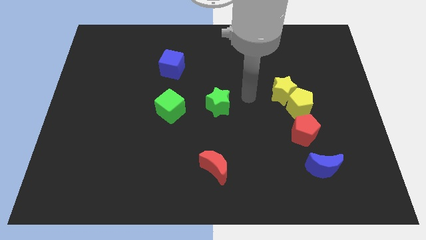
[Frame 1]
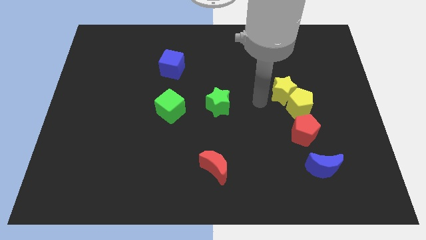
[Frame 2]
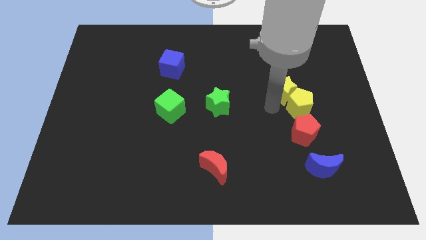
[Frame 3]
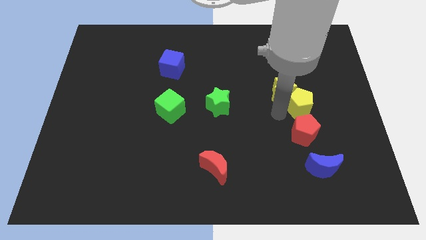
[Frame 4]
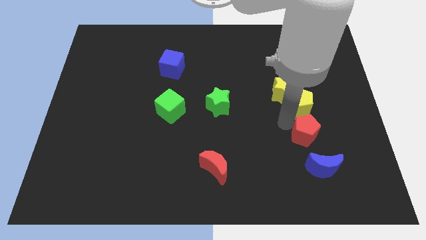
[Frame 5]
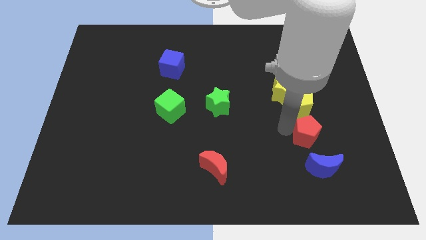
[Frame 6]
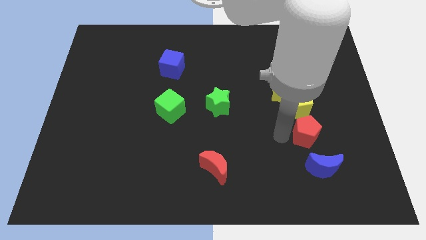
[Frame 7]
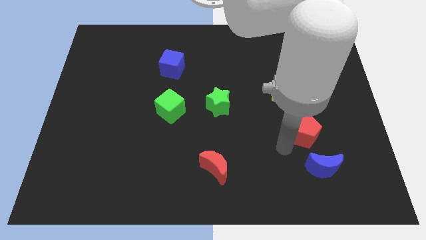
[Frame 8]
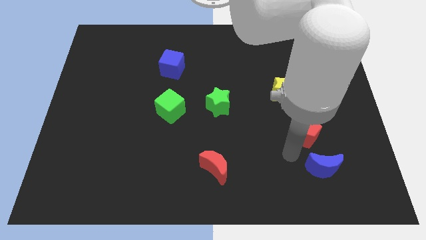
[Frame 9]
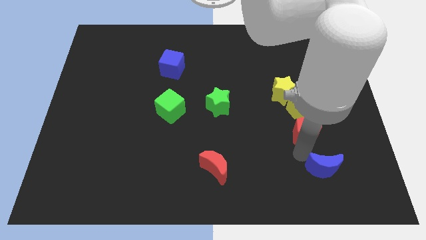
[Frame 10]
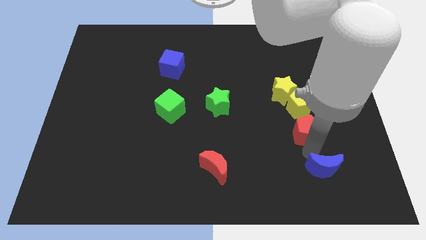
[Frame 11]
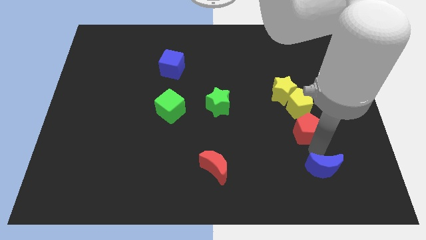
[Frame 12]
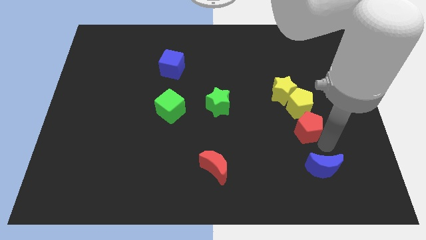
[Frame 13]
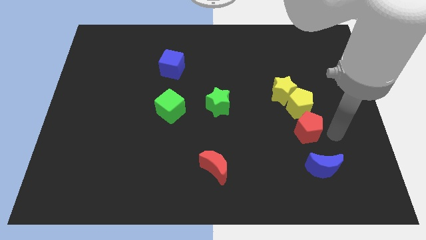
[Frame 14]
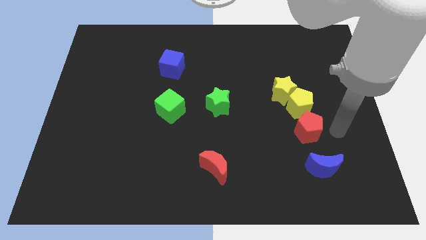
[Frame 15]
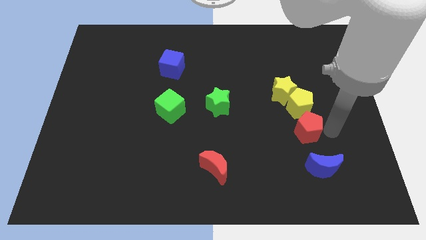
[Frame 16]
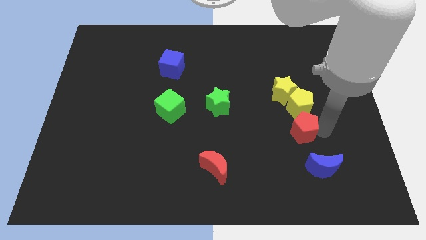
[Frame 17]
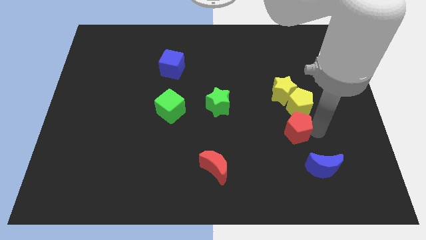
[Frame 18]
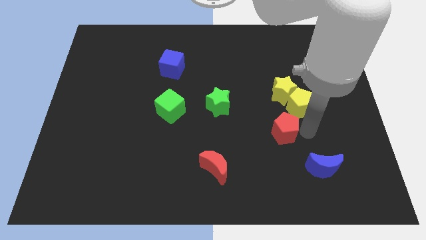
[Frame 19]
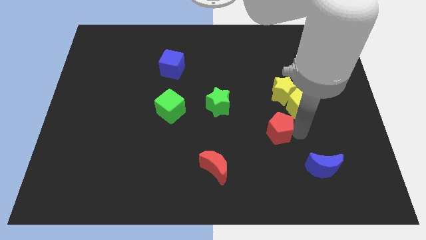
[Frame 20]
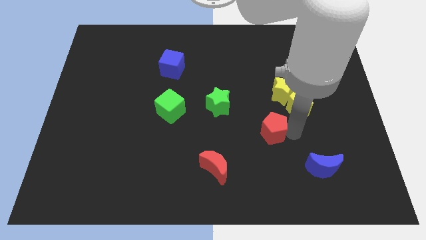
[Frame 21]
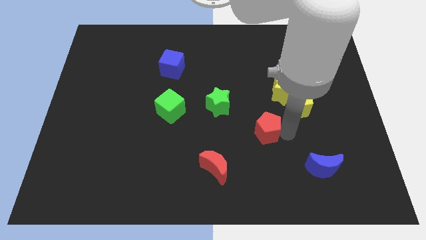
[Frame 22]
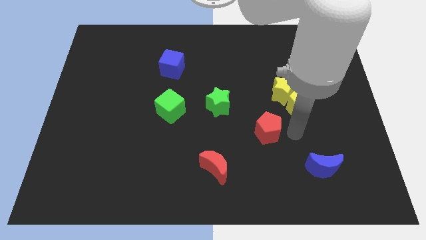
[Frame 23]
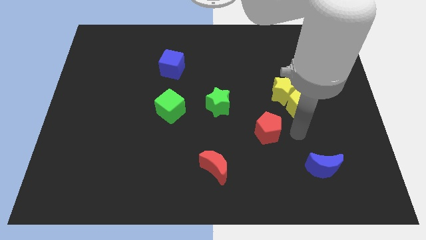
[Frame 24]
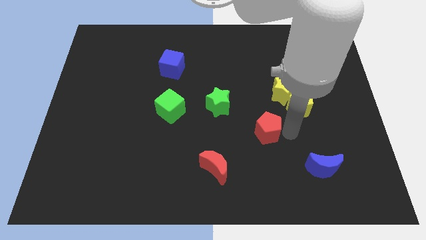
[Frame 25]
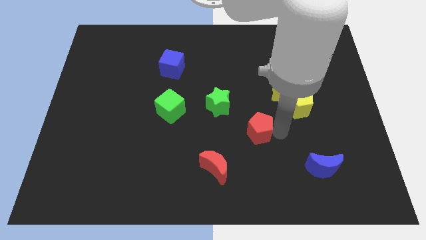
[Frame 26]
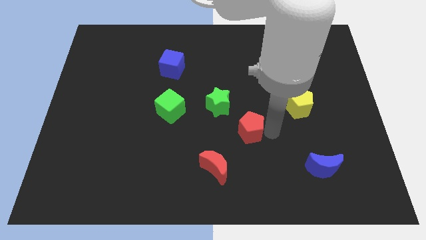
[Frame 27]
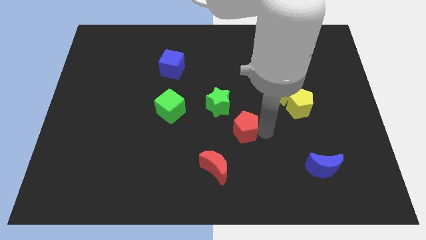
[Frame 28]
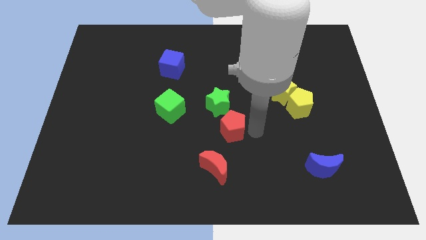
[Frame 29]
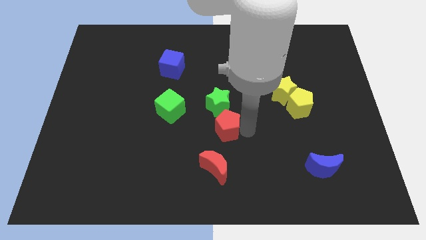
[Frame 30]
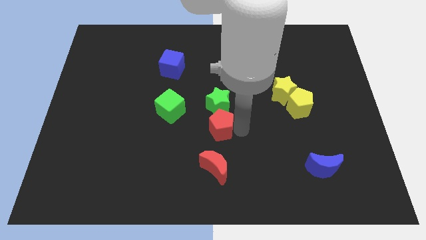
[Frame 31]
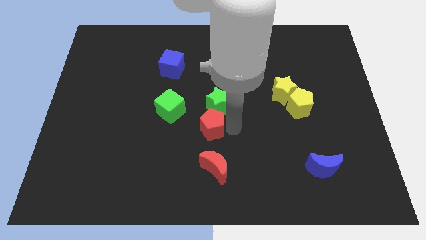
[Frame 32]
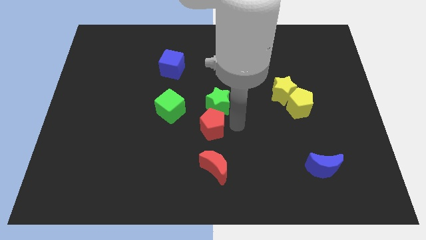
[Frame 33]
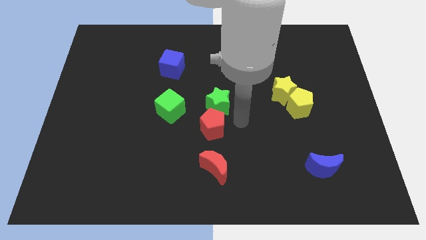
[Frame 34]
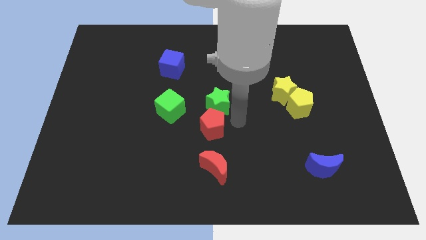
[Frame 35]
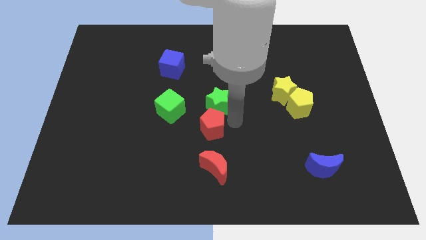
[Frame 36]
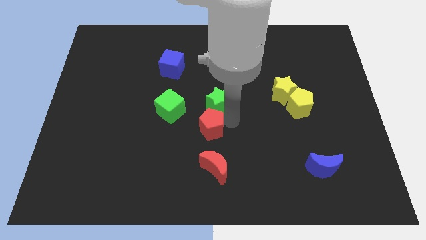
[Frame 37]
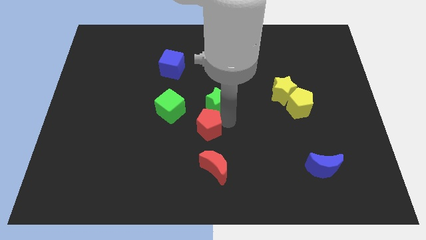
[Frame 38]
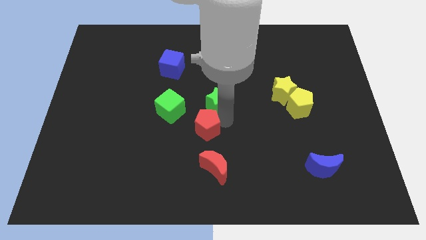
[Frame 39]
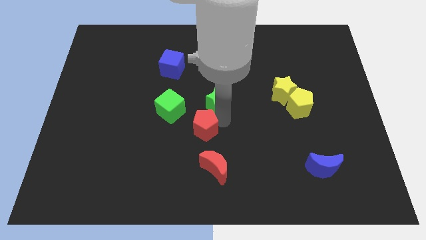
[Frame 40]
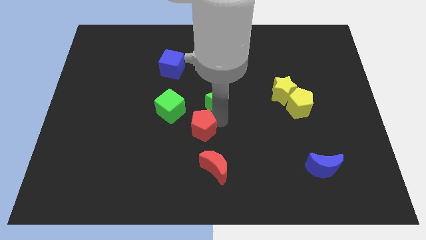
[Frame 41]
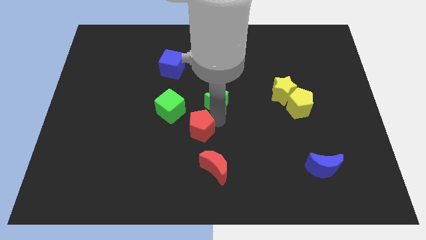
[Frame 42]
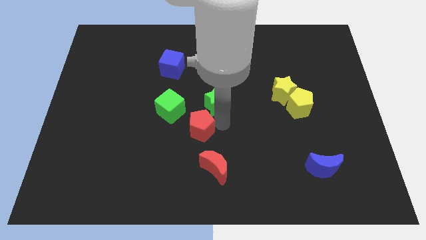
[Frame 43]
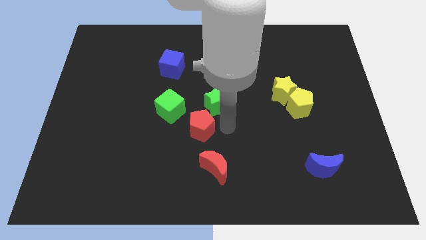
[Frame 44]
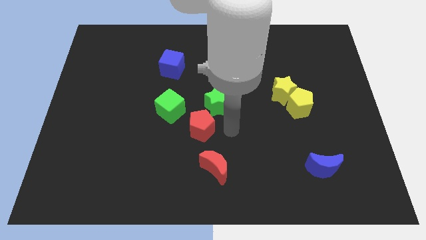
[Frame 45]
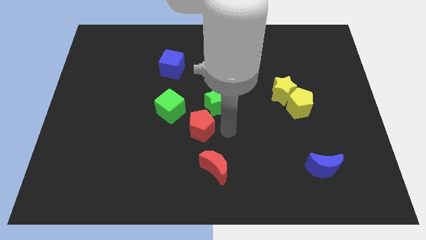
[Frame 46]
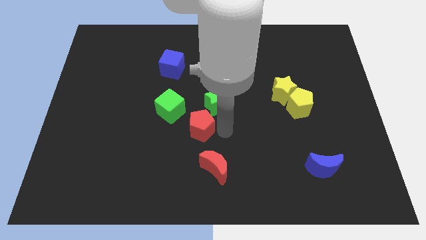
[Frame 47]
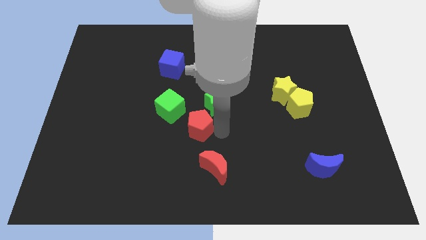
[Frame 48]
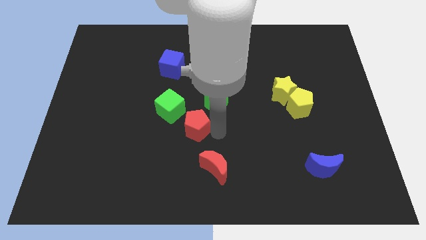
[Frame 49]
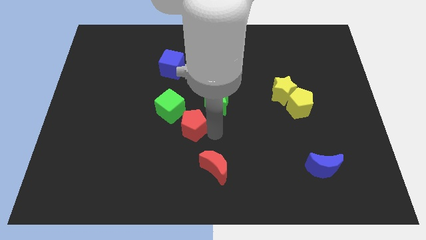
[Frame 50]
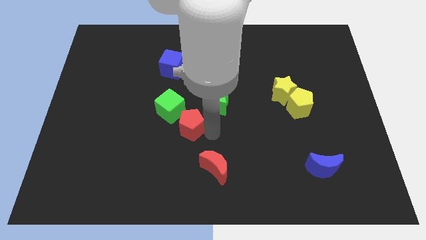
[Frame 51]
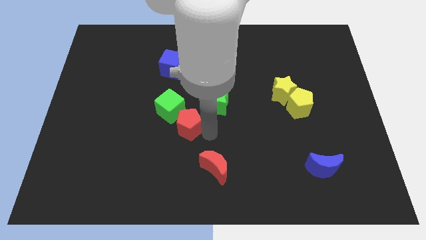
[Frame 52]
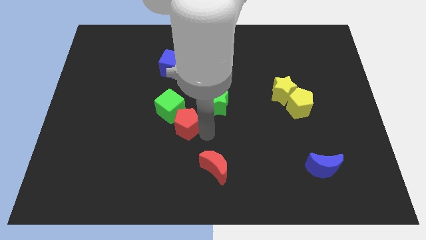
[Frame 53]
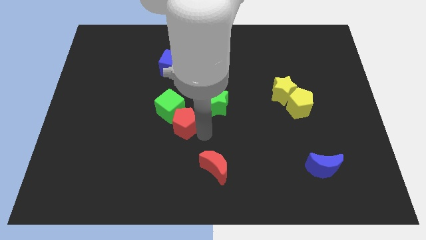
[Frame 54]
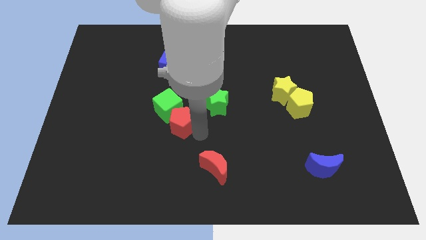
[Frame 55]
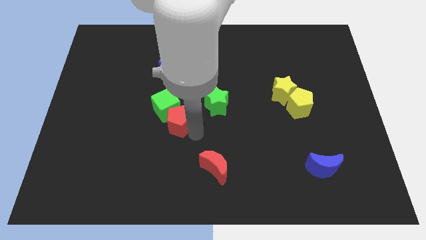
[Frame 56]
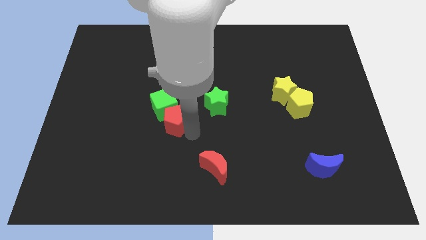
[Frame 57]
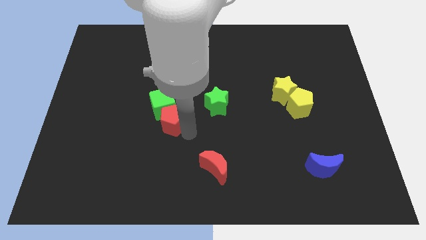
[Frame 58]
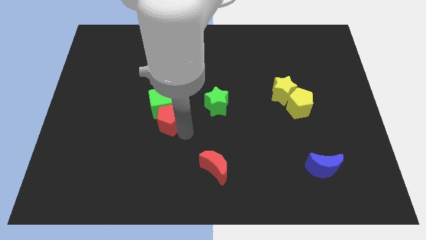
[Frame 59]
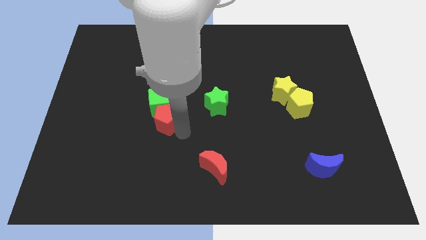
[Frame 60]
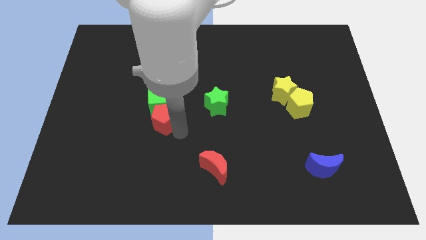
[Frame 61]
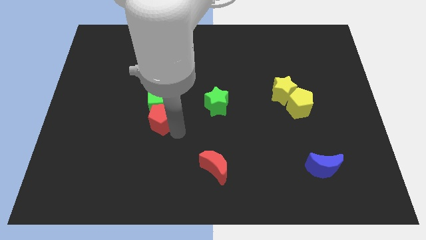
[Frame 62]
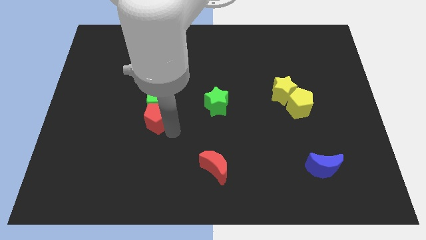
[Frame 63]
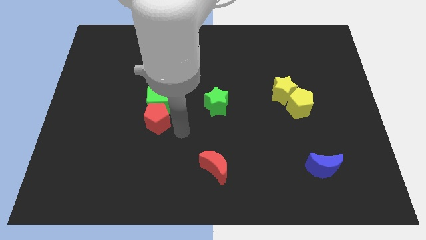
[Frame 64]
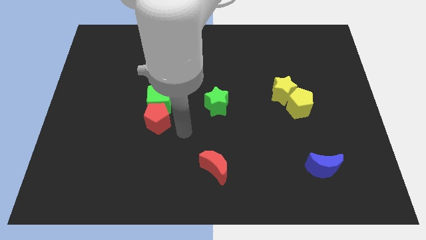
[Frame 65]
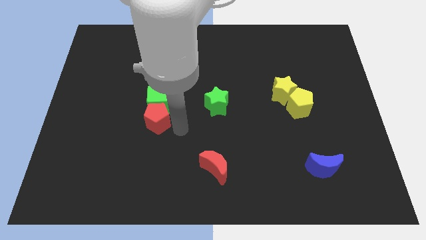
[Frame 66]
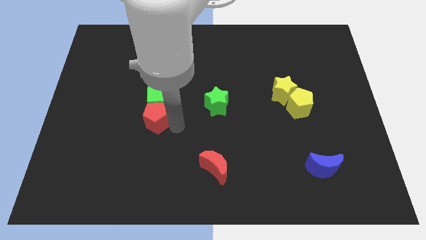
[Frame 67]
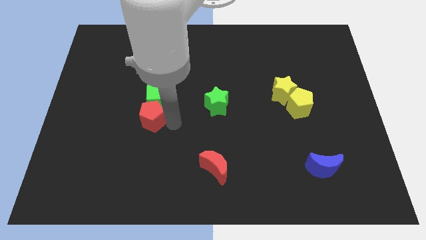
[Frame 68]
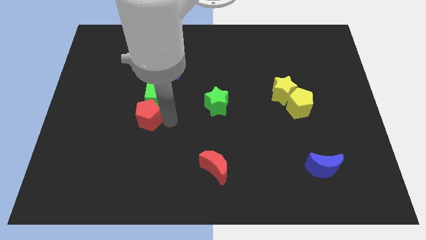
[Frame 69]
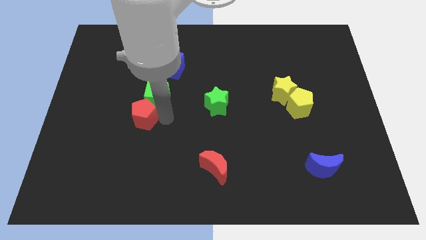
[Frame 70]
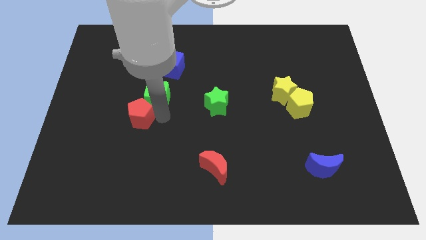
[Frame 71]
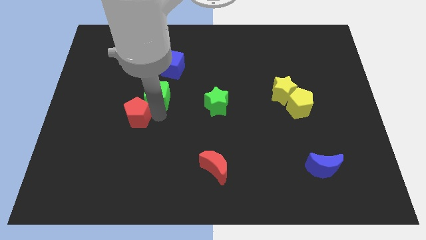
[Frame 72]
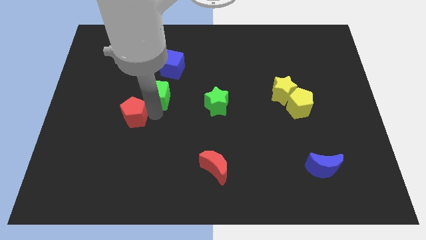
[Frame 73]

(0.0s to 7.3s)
put the red pentagon left of the green cube
